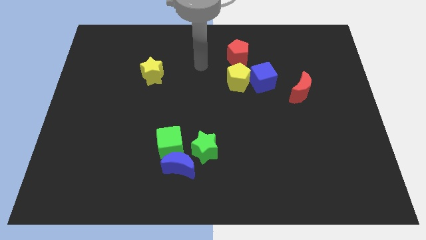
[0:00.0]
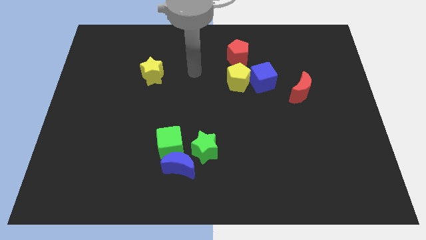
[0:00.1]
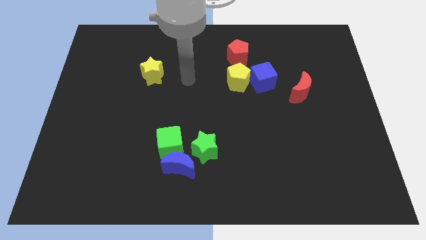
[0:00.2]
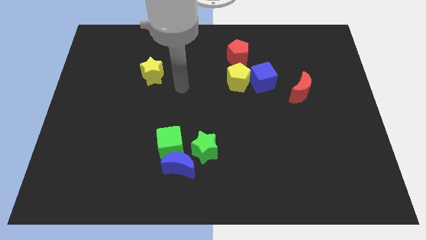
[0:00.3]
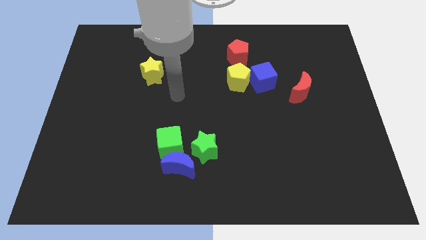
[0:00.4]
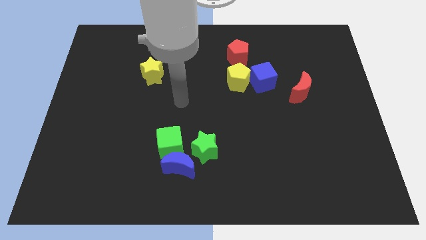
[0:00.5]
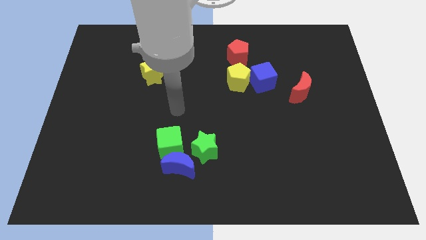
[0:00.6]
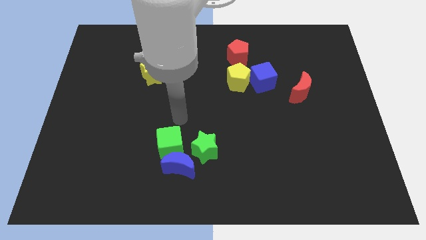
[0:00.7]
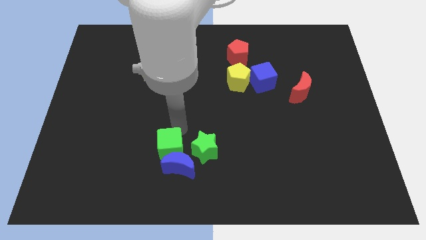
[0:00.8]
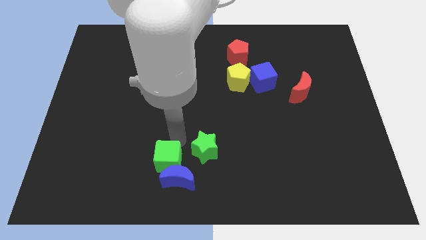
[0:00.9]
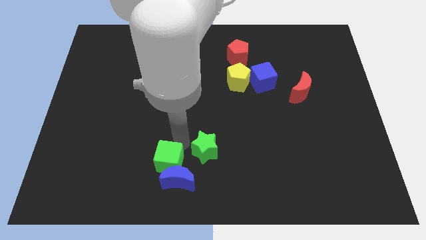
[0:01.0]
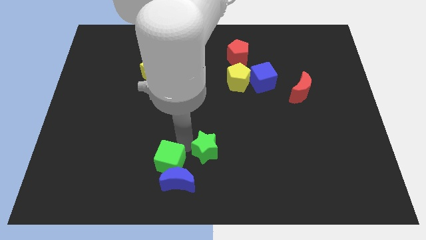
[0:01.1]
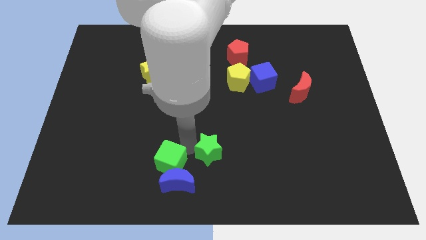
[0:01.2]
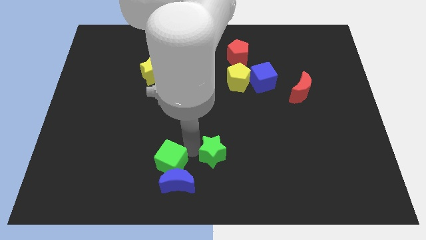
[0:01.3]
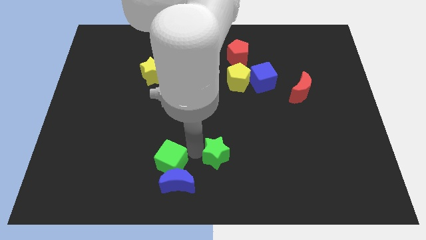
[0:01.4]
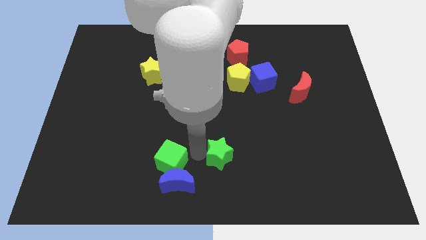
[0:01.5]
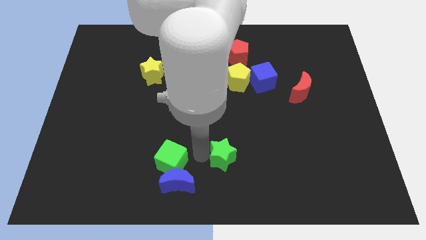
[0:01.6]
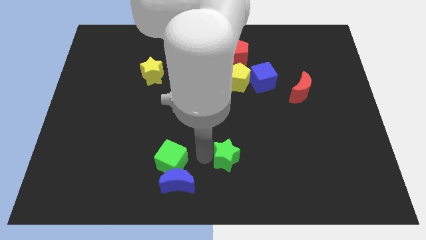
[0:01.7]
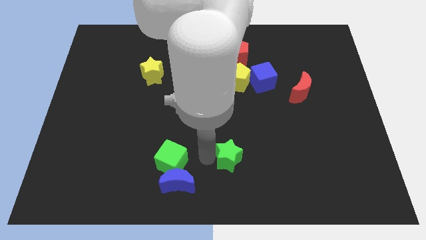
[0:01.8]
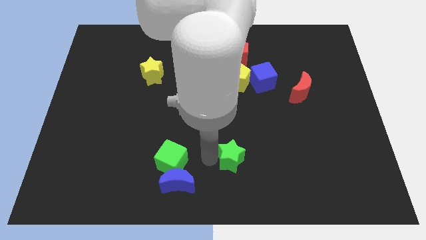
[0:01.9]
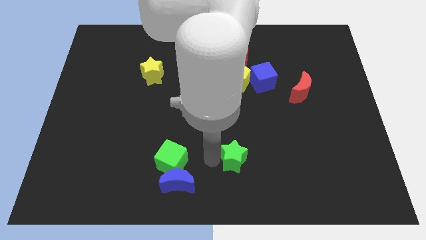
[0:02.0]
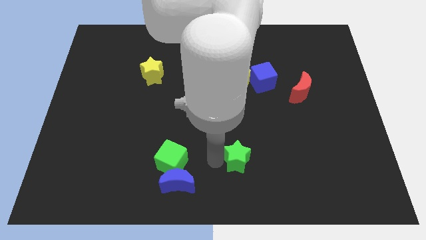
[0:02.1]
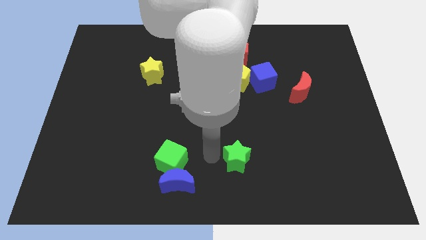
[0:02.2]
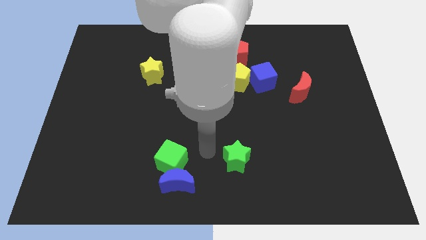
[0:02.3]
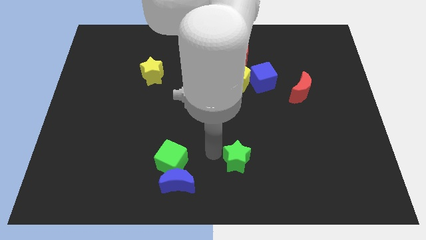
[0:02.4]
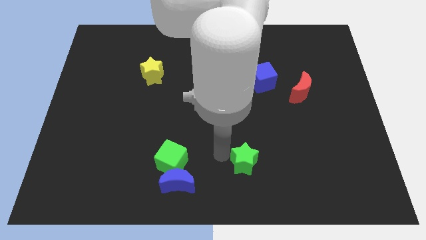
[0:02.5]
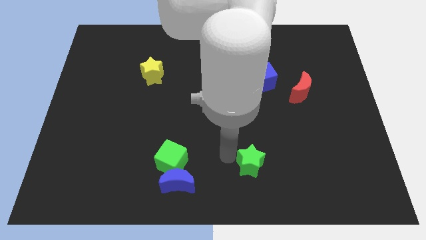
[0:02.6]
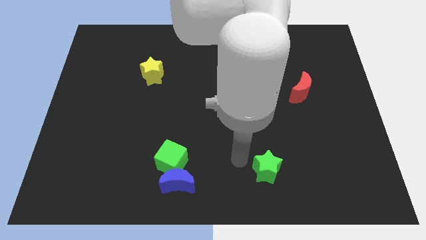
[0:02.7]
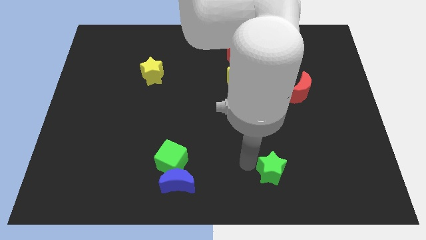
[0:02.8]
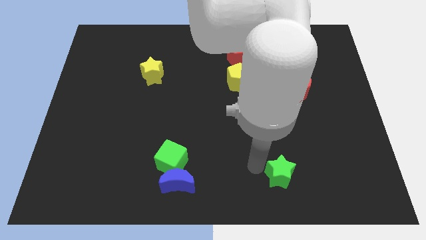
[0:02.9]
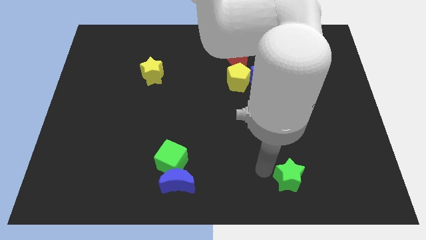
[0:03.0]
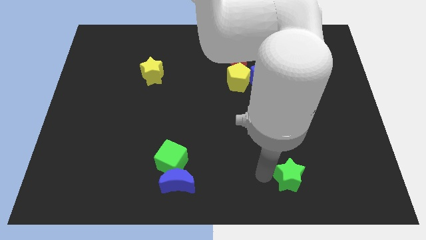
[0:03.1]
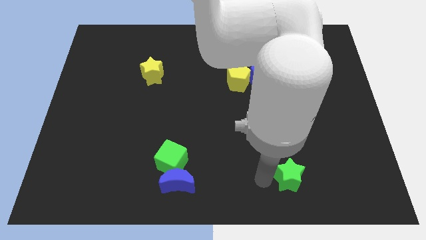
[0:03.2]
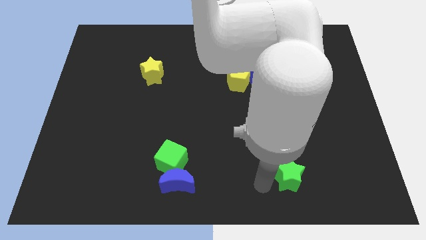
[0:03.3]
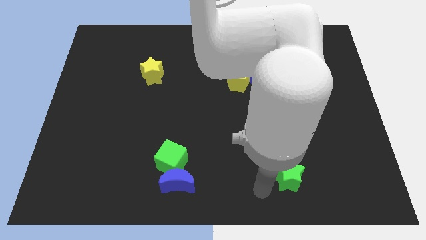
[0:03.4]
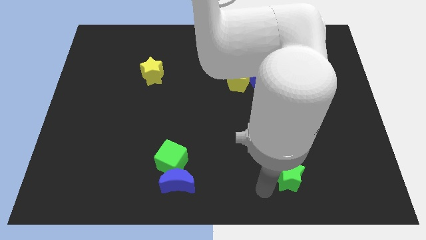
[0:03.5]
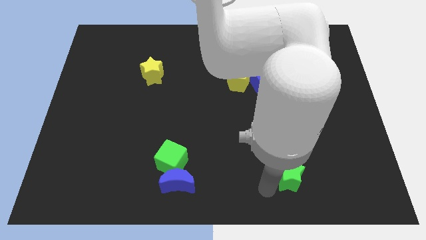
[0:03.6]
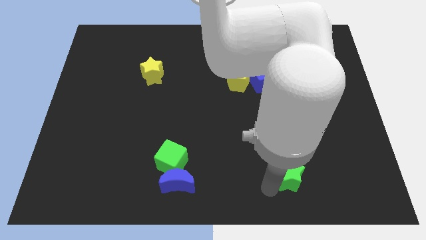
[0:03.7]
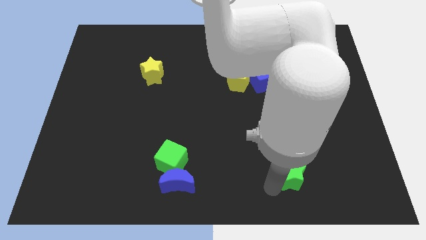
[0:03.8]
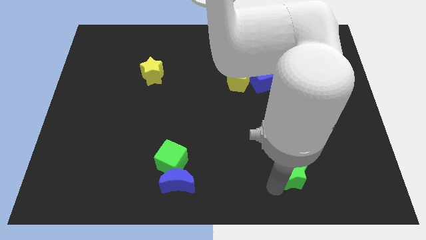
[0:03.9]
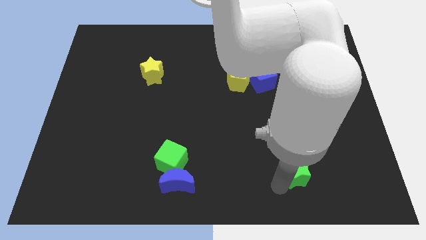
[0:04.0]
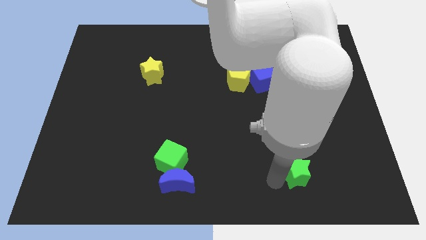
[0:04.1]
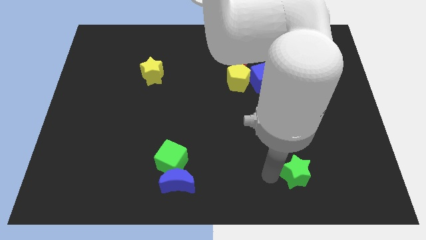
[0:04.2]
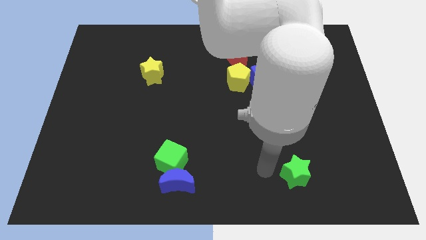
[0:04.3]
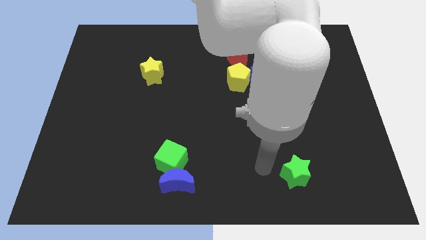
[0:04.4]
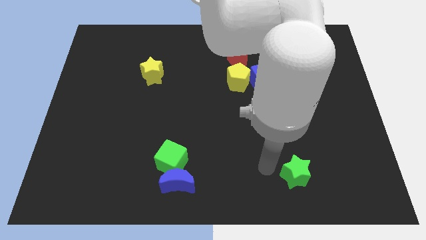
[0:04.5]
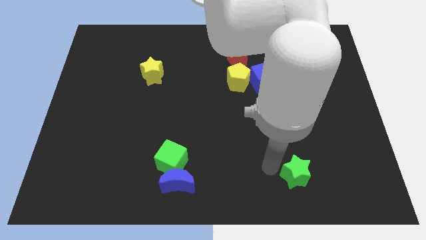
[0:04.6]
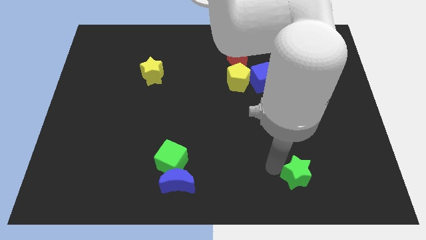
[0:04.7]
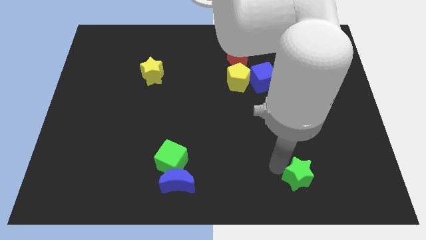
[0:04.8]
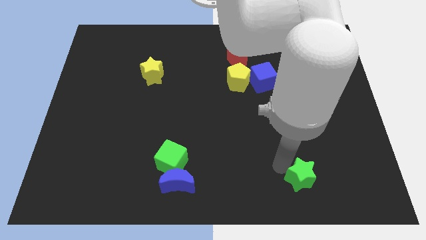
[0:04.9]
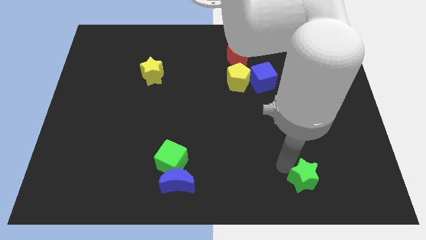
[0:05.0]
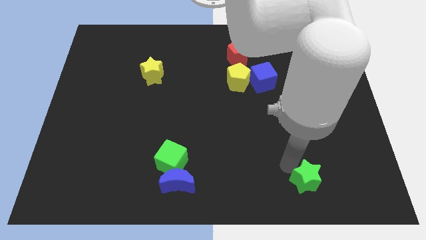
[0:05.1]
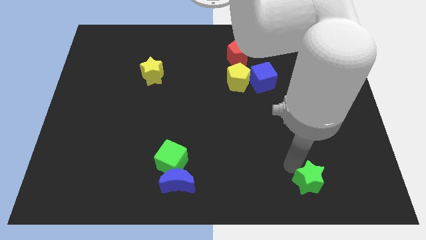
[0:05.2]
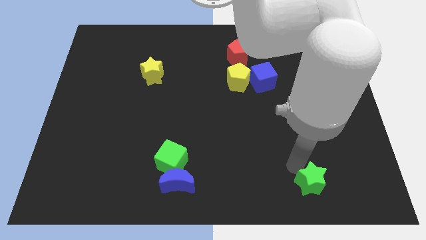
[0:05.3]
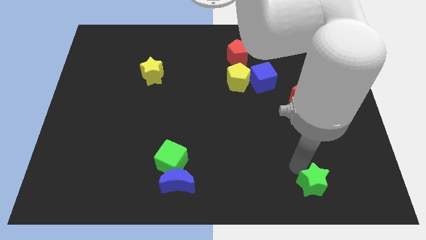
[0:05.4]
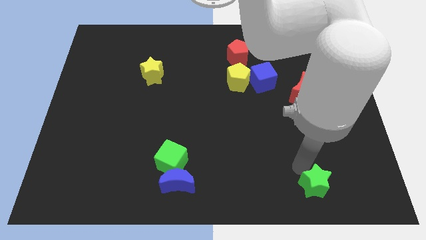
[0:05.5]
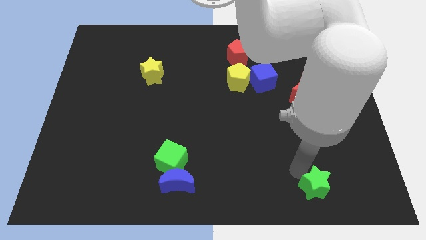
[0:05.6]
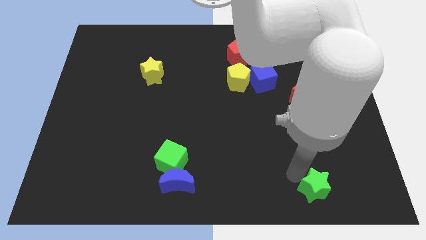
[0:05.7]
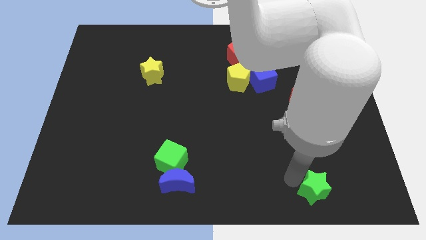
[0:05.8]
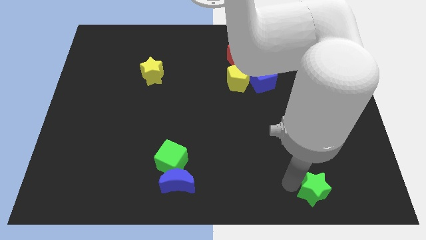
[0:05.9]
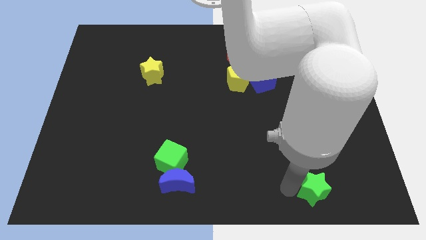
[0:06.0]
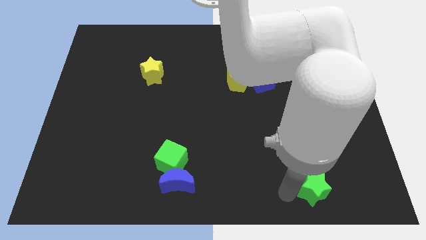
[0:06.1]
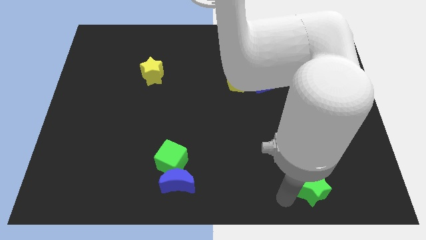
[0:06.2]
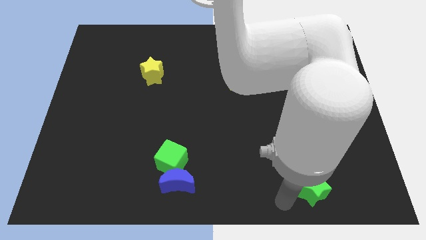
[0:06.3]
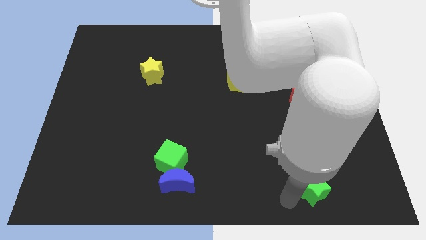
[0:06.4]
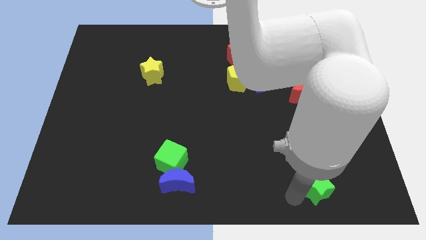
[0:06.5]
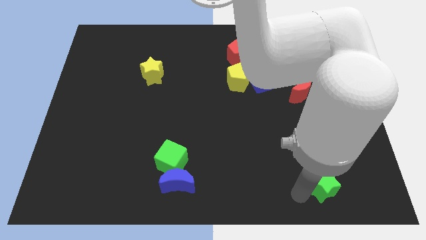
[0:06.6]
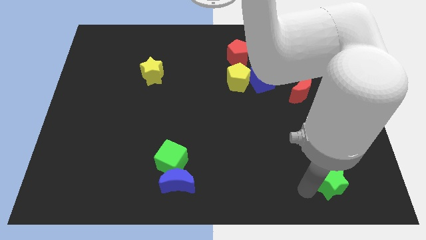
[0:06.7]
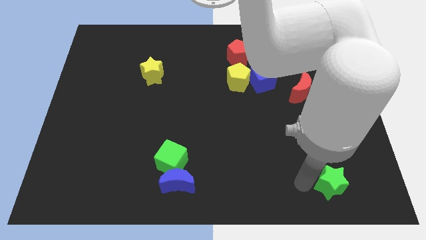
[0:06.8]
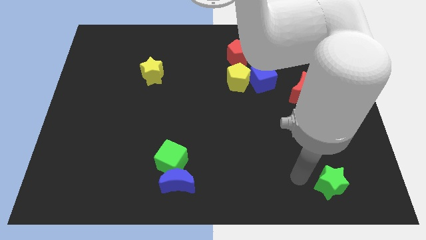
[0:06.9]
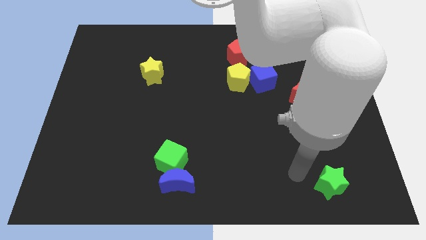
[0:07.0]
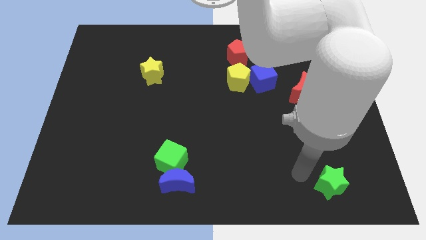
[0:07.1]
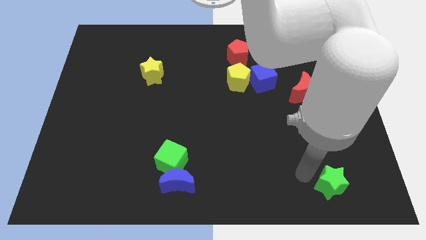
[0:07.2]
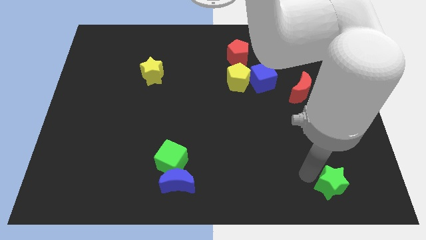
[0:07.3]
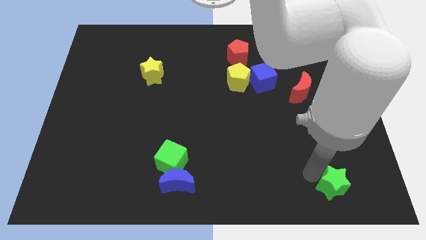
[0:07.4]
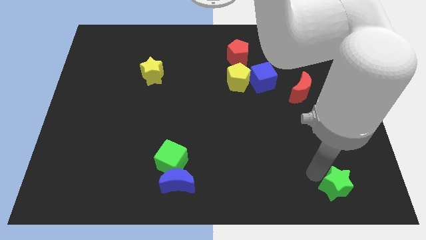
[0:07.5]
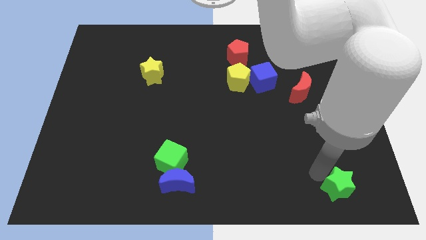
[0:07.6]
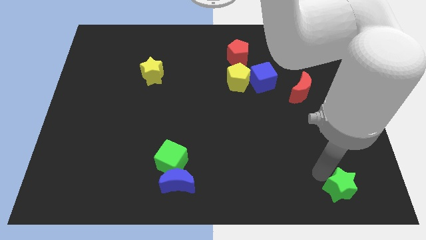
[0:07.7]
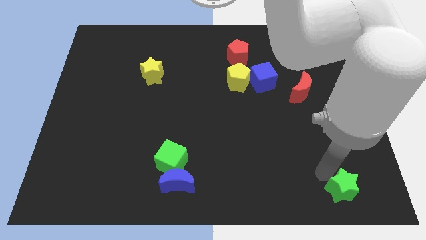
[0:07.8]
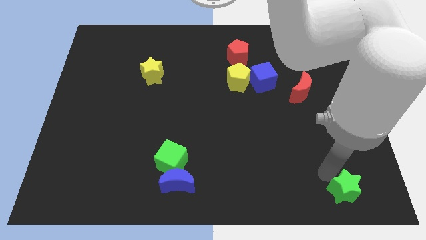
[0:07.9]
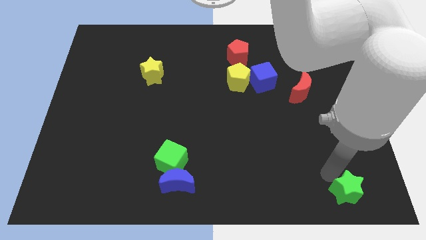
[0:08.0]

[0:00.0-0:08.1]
slide the green star to the bottom right corner
